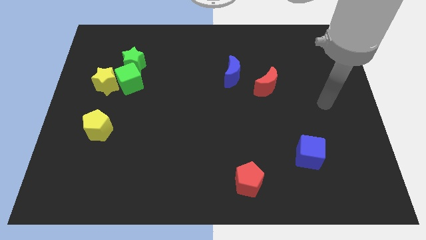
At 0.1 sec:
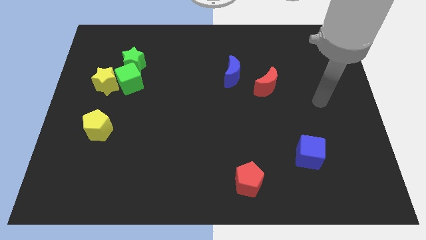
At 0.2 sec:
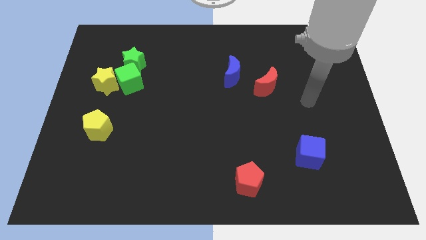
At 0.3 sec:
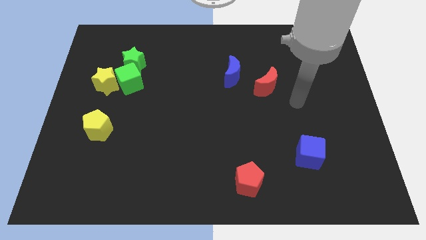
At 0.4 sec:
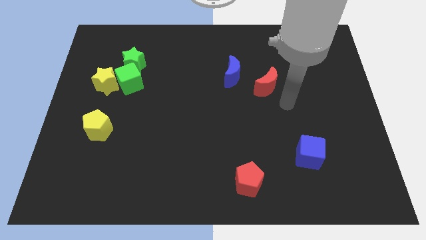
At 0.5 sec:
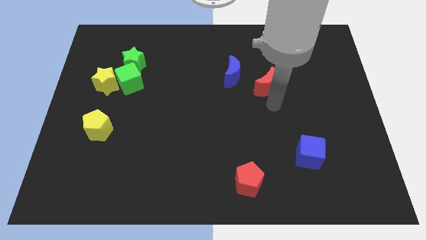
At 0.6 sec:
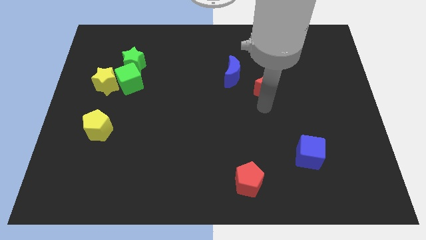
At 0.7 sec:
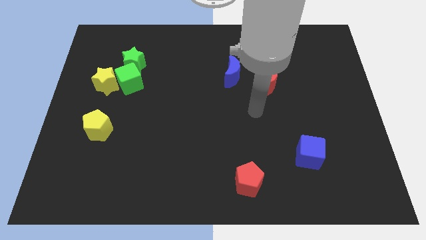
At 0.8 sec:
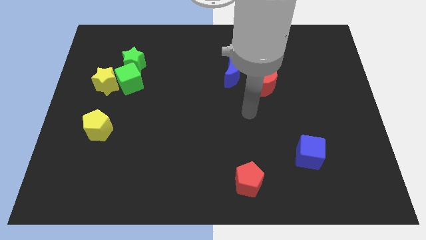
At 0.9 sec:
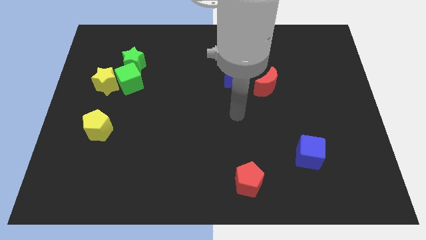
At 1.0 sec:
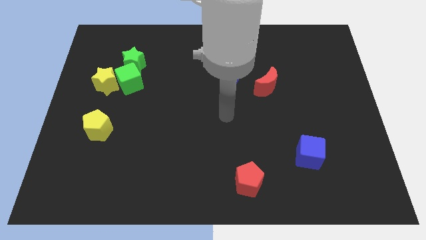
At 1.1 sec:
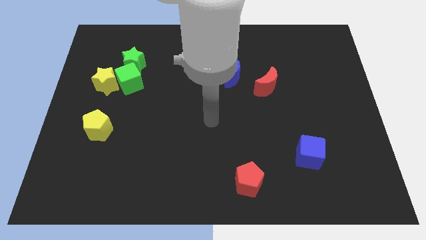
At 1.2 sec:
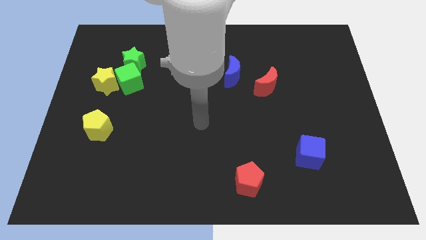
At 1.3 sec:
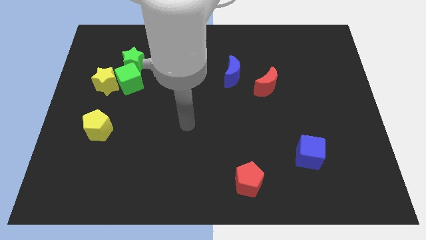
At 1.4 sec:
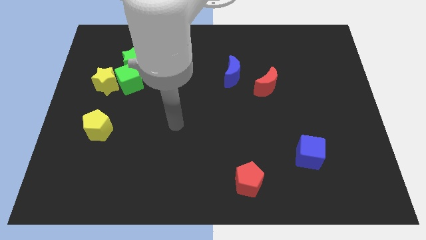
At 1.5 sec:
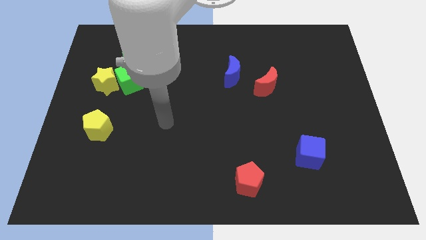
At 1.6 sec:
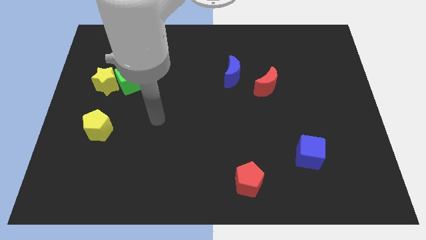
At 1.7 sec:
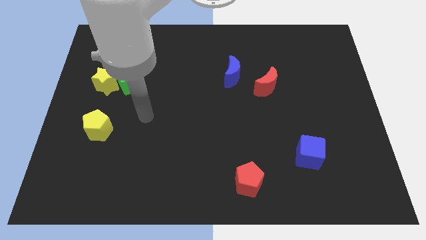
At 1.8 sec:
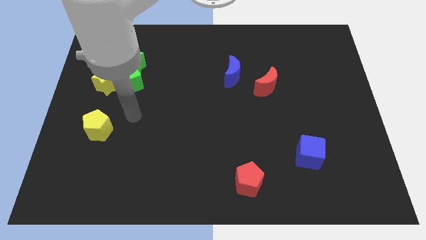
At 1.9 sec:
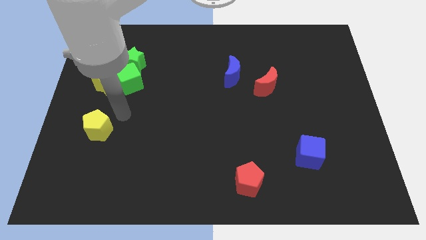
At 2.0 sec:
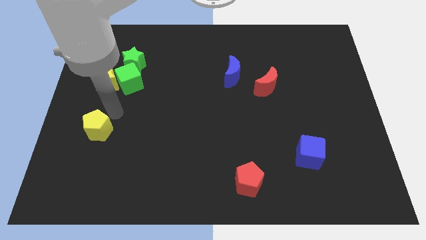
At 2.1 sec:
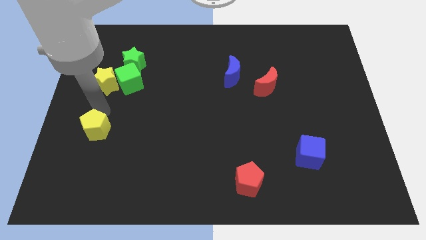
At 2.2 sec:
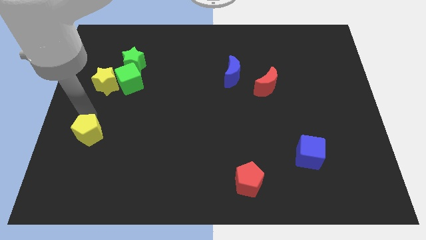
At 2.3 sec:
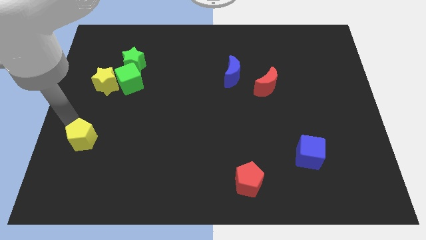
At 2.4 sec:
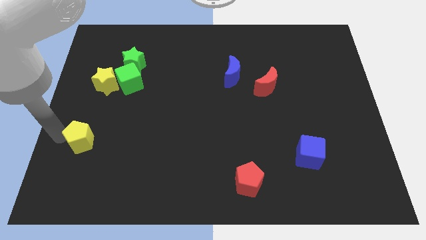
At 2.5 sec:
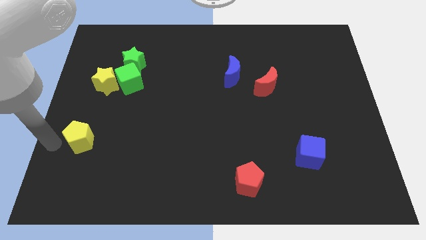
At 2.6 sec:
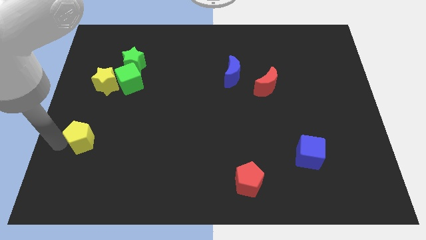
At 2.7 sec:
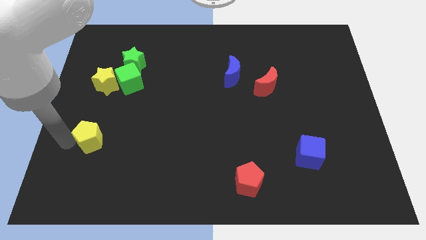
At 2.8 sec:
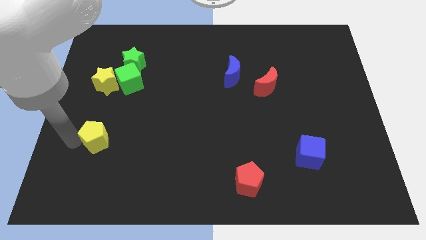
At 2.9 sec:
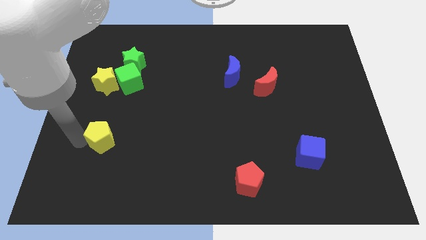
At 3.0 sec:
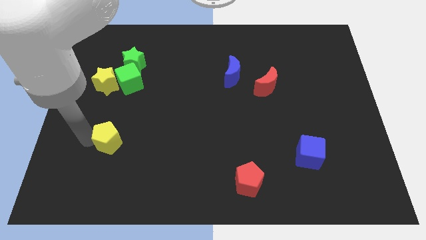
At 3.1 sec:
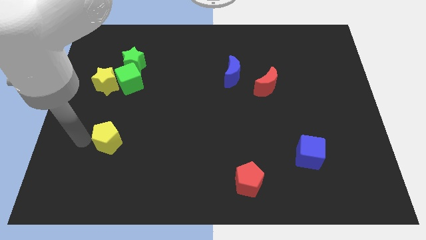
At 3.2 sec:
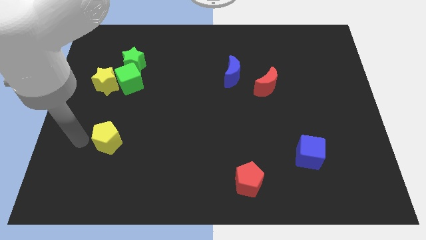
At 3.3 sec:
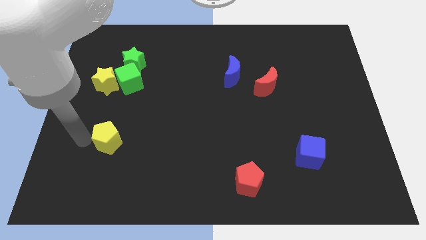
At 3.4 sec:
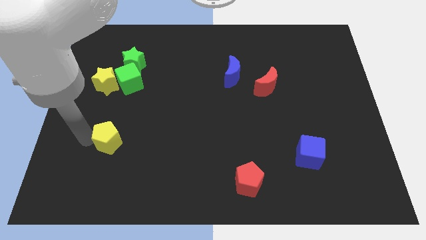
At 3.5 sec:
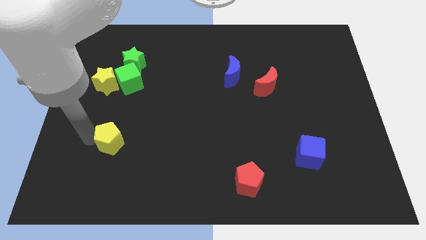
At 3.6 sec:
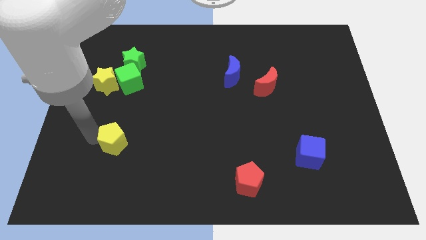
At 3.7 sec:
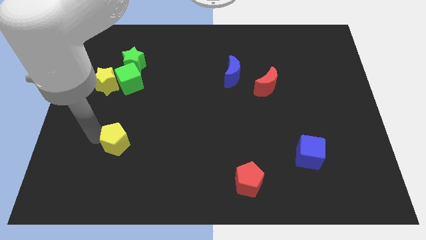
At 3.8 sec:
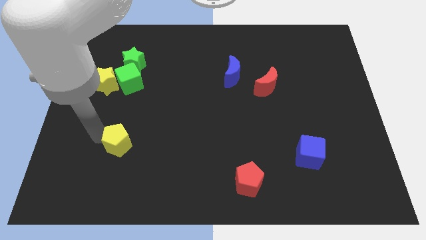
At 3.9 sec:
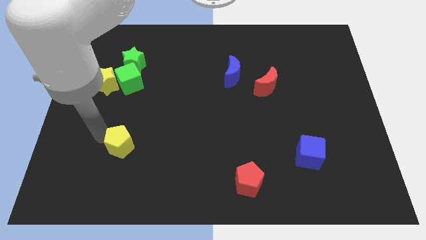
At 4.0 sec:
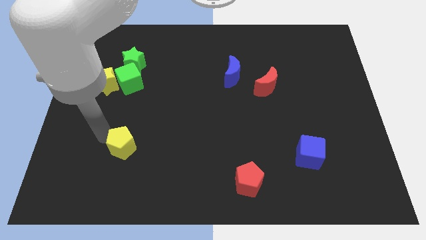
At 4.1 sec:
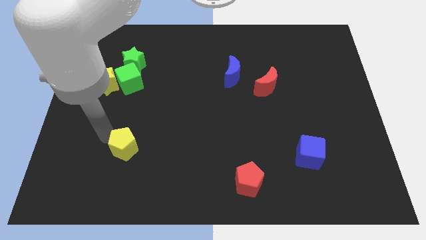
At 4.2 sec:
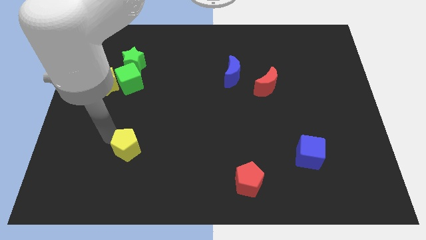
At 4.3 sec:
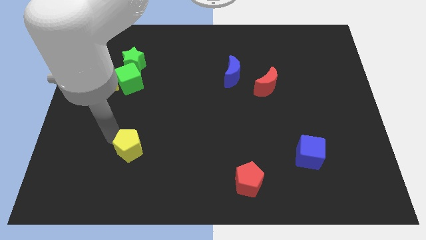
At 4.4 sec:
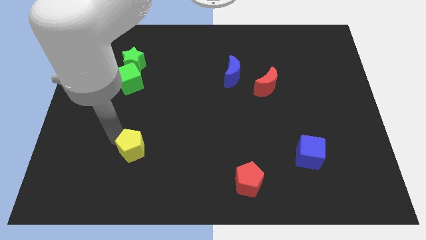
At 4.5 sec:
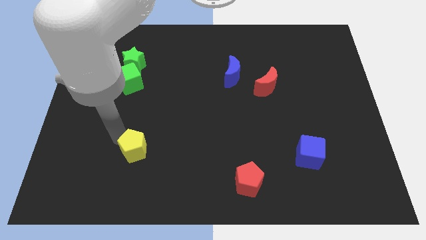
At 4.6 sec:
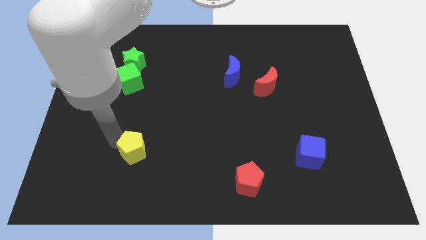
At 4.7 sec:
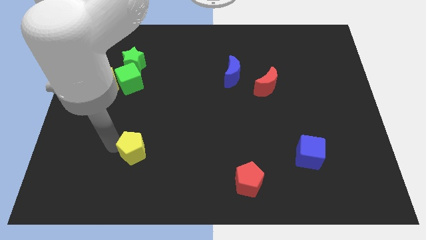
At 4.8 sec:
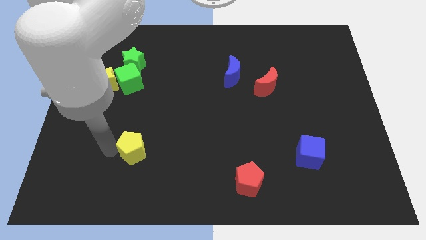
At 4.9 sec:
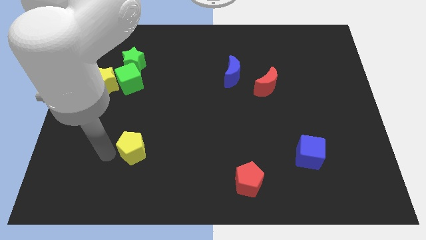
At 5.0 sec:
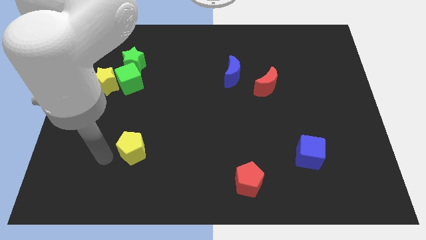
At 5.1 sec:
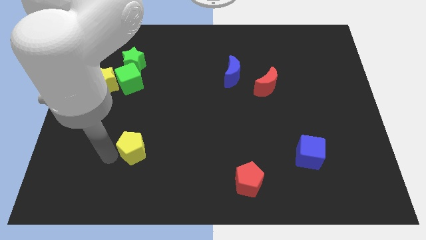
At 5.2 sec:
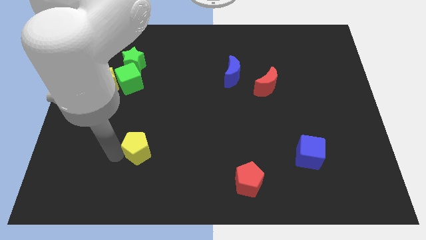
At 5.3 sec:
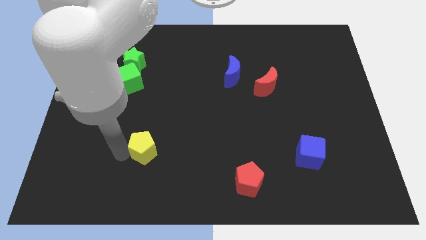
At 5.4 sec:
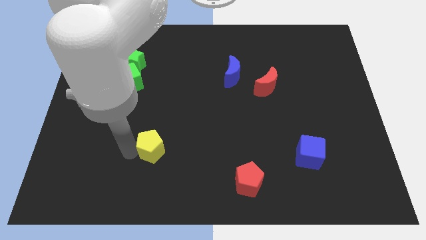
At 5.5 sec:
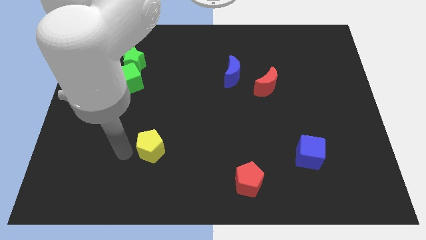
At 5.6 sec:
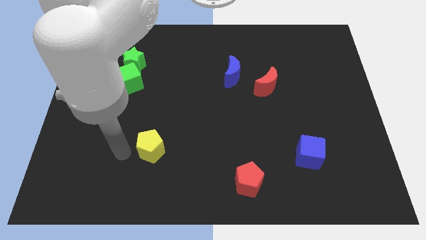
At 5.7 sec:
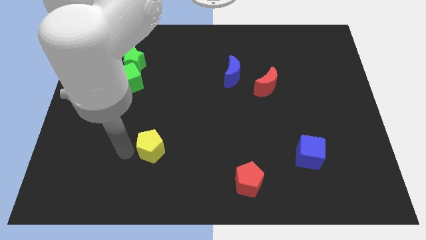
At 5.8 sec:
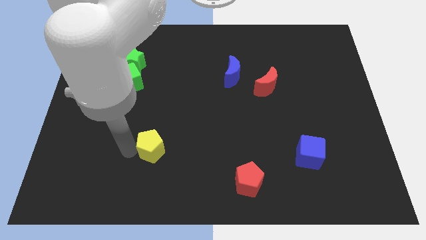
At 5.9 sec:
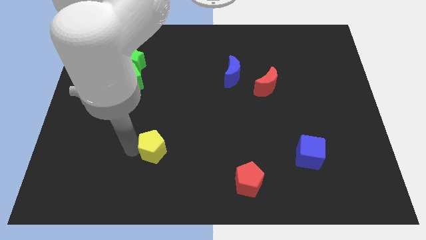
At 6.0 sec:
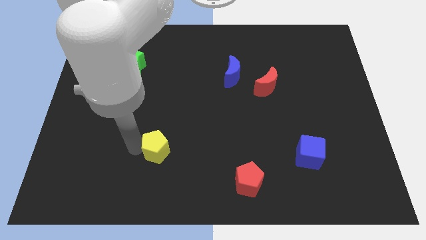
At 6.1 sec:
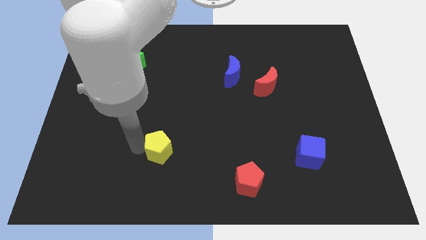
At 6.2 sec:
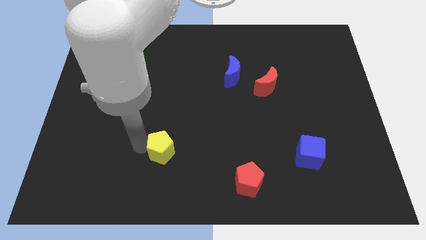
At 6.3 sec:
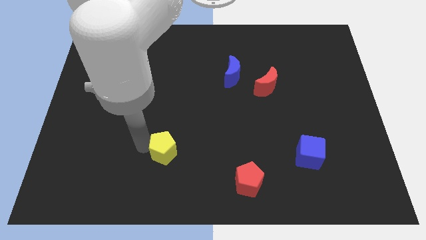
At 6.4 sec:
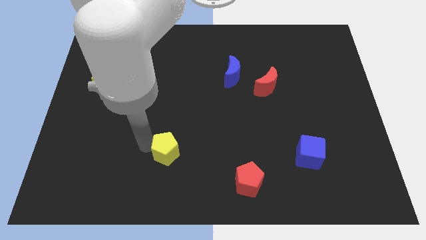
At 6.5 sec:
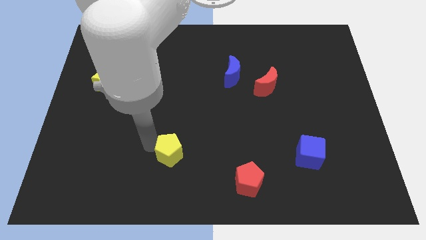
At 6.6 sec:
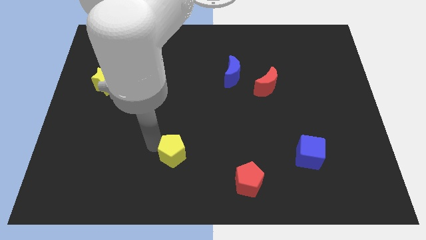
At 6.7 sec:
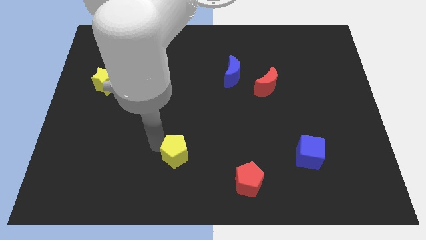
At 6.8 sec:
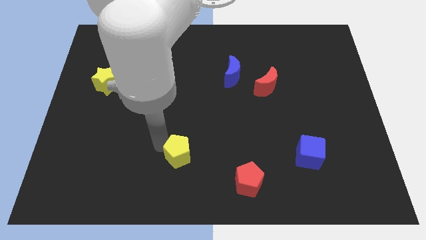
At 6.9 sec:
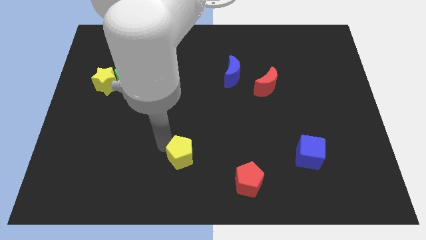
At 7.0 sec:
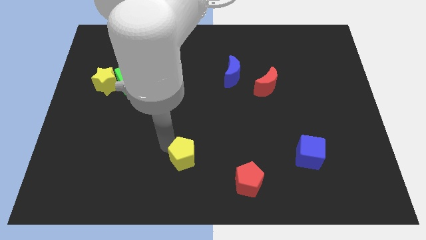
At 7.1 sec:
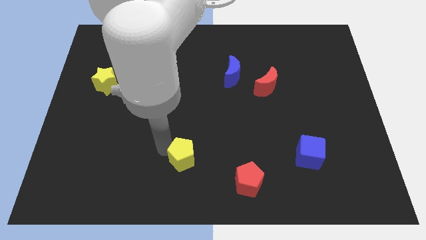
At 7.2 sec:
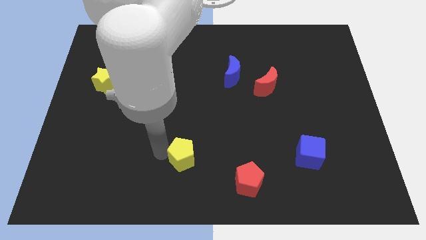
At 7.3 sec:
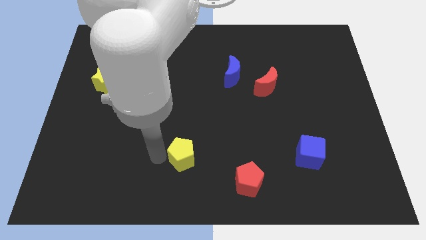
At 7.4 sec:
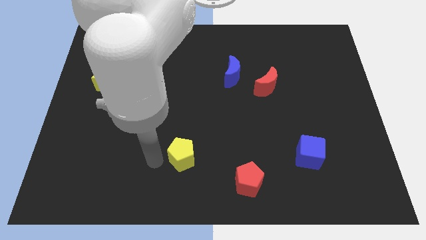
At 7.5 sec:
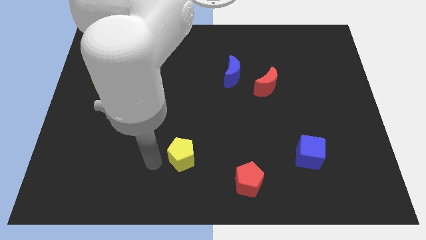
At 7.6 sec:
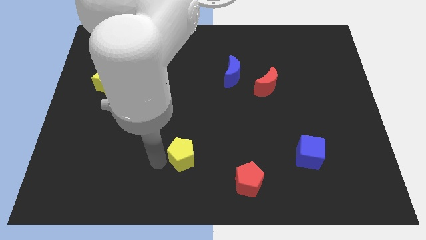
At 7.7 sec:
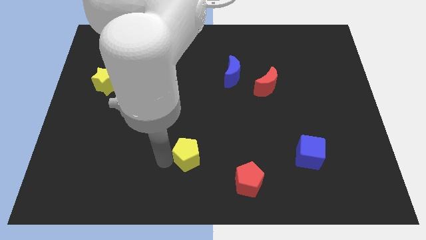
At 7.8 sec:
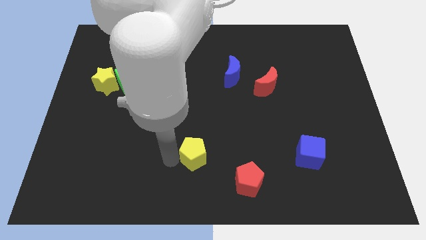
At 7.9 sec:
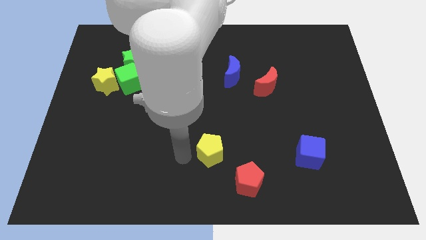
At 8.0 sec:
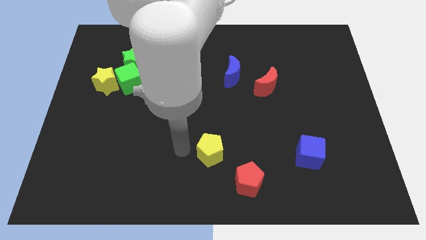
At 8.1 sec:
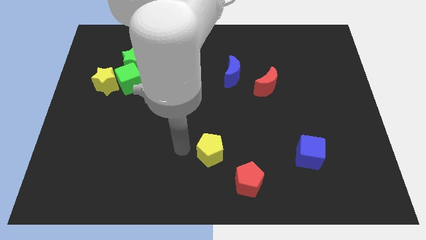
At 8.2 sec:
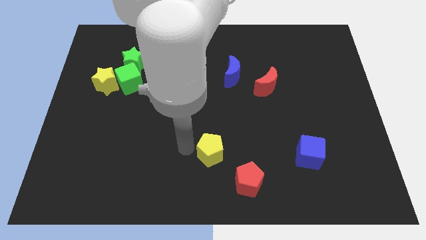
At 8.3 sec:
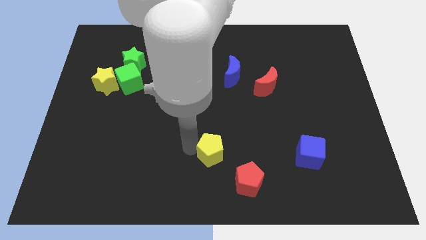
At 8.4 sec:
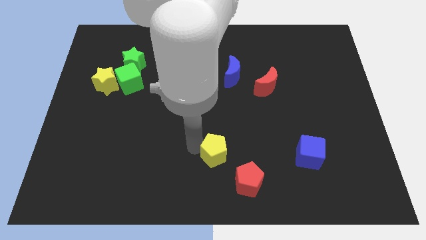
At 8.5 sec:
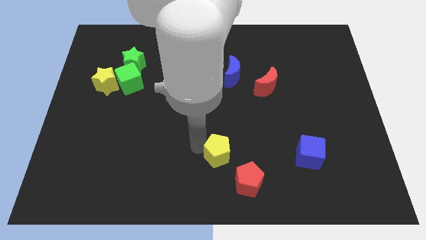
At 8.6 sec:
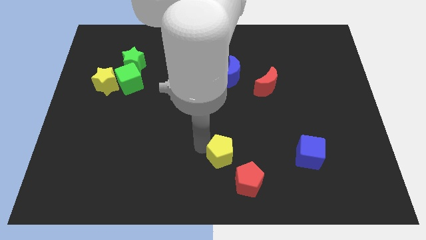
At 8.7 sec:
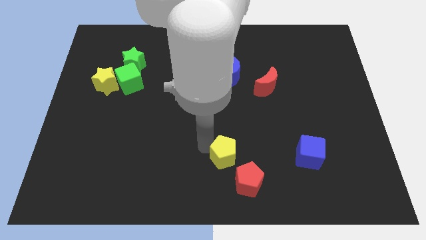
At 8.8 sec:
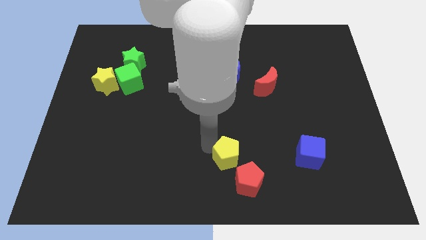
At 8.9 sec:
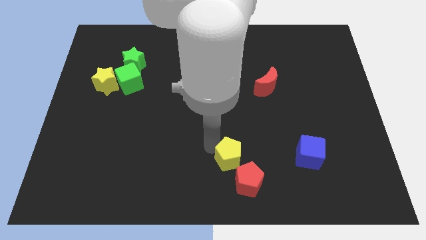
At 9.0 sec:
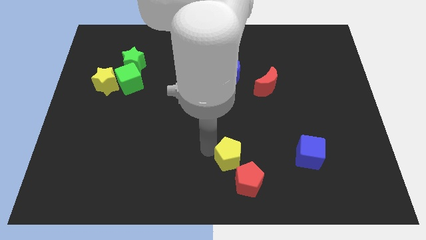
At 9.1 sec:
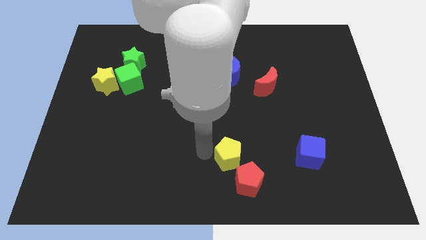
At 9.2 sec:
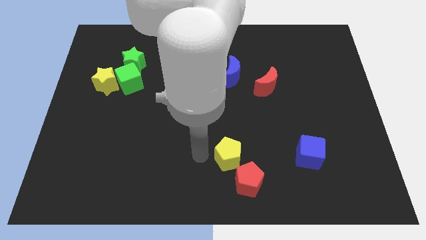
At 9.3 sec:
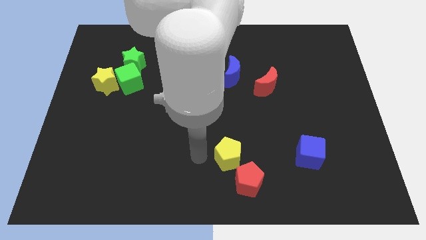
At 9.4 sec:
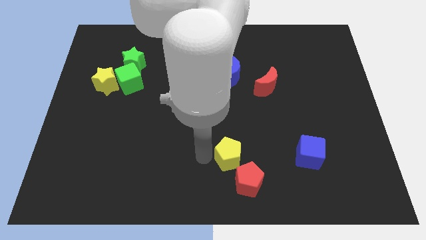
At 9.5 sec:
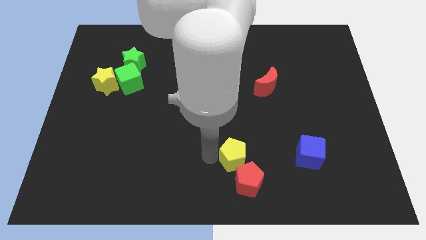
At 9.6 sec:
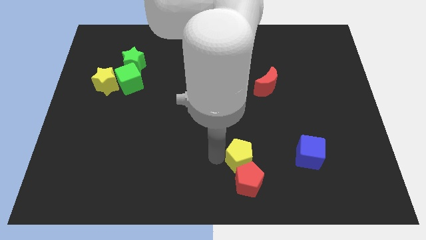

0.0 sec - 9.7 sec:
slide the yellow pentagon diagonally up and to the right of the red pentagon
